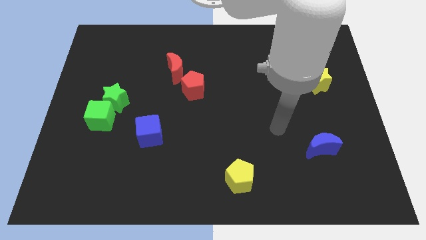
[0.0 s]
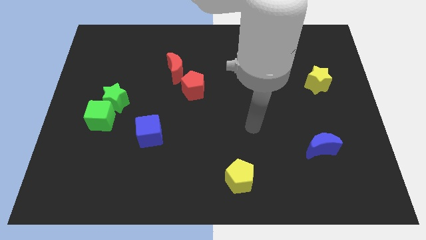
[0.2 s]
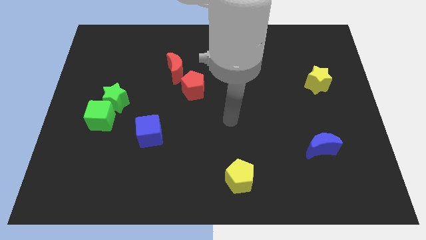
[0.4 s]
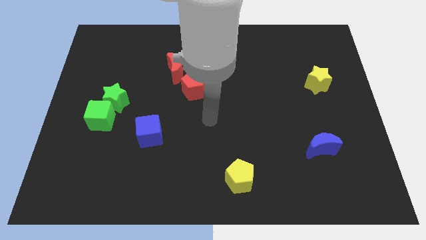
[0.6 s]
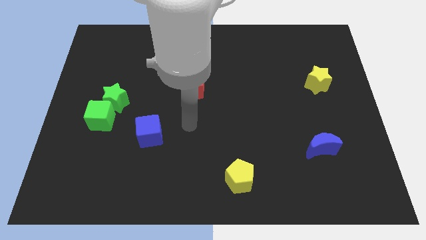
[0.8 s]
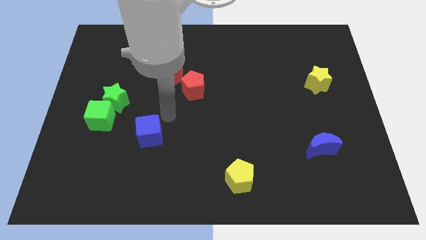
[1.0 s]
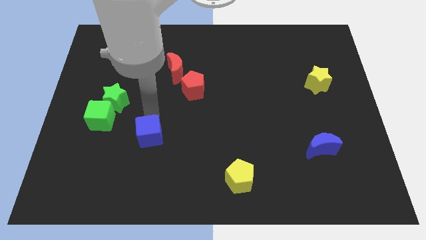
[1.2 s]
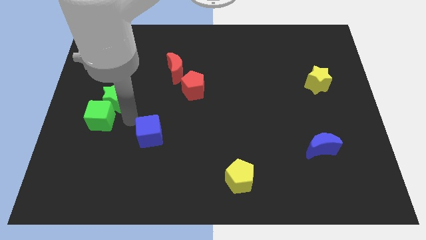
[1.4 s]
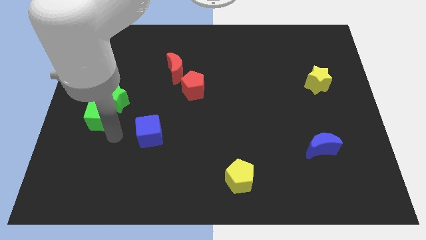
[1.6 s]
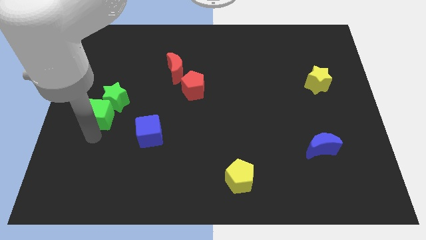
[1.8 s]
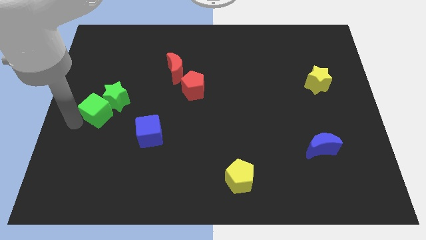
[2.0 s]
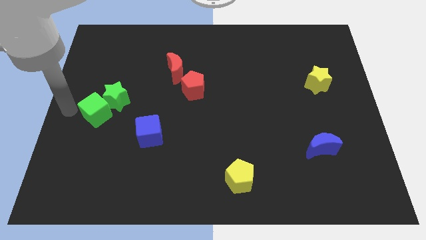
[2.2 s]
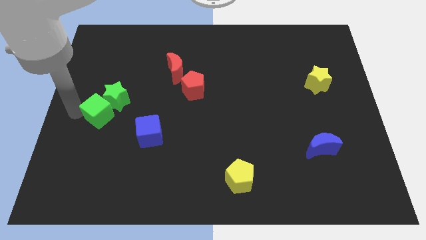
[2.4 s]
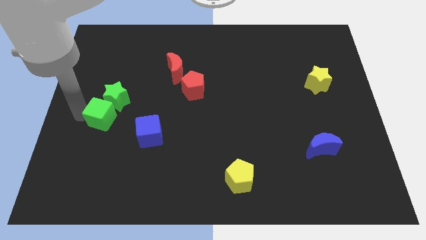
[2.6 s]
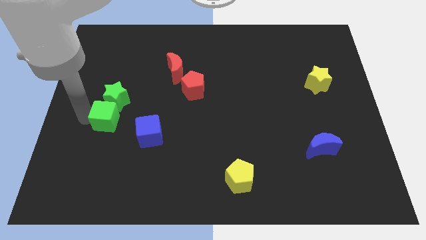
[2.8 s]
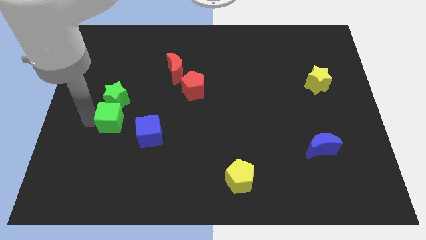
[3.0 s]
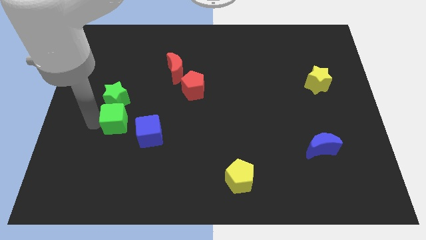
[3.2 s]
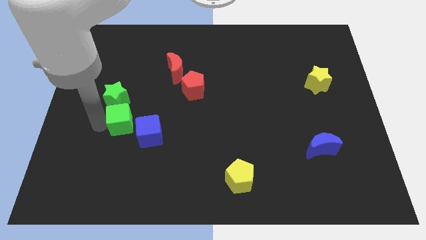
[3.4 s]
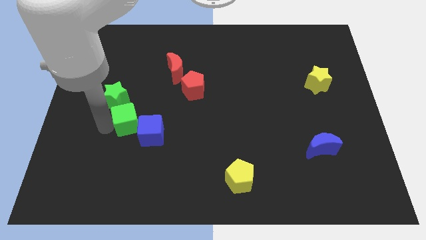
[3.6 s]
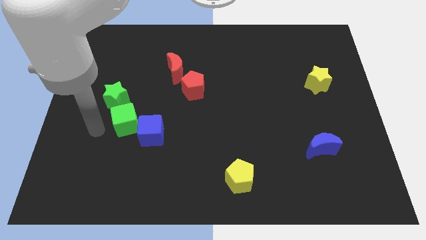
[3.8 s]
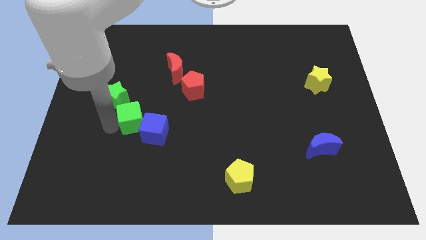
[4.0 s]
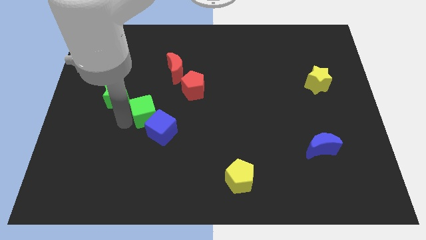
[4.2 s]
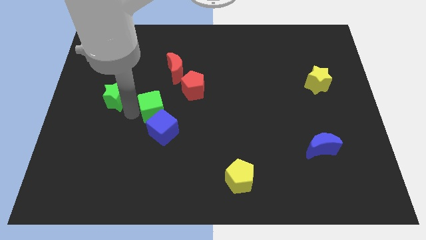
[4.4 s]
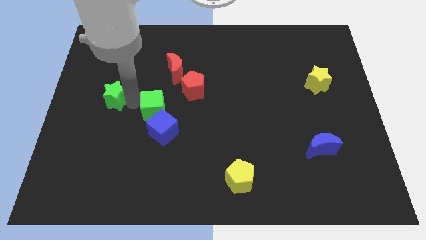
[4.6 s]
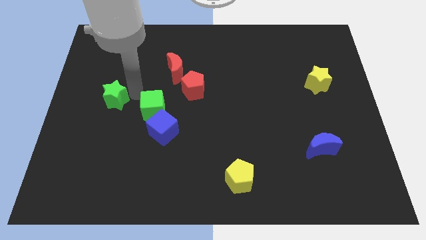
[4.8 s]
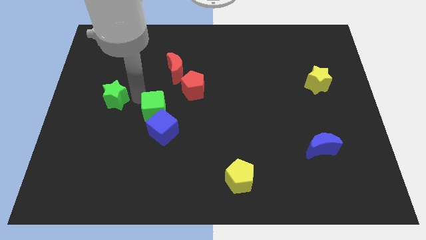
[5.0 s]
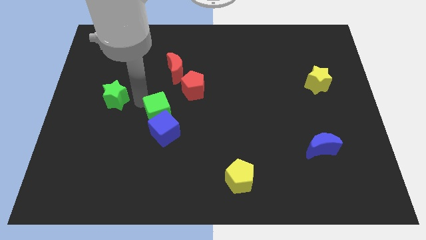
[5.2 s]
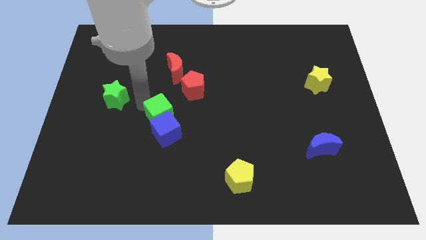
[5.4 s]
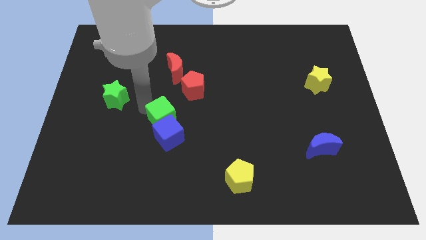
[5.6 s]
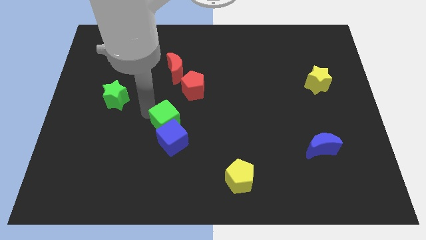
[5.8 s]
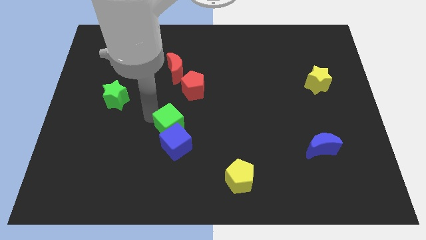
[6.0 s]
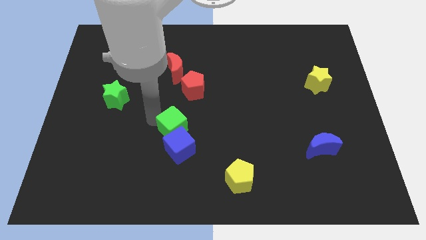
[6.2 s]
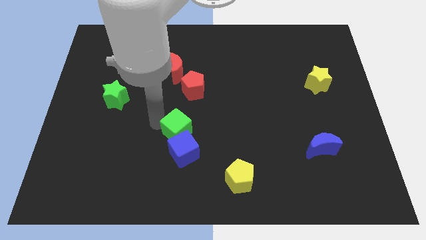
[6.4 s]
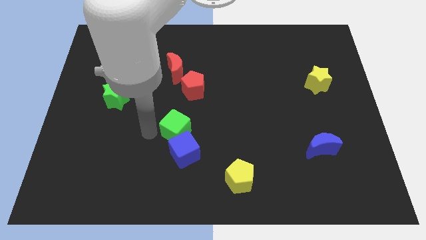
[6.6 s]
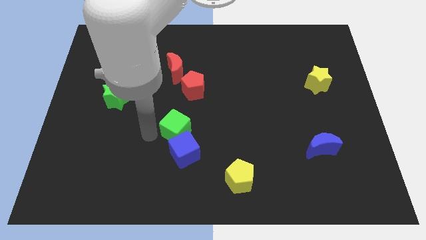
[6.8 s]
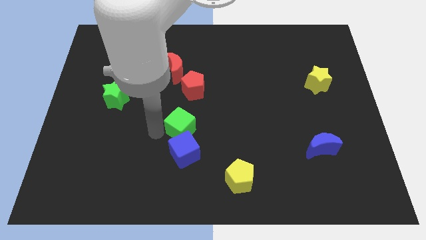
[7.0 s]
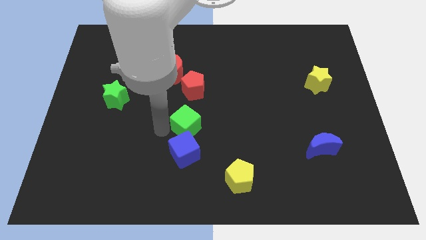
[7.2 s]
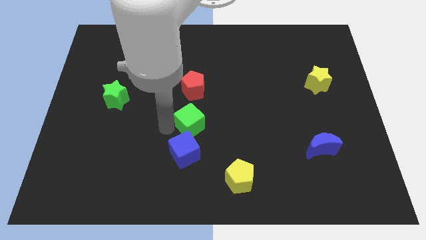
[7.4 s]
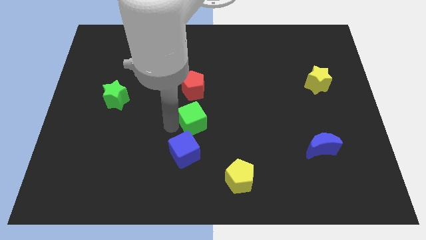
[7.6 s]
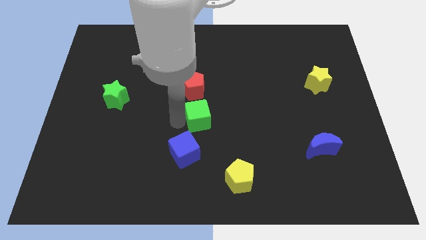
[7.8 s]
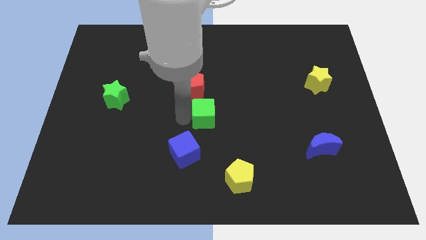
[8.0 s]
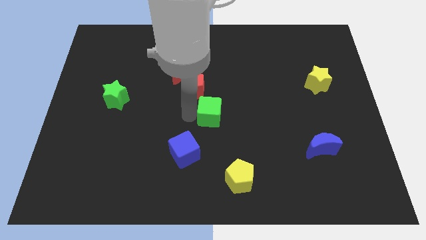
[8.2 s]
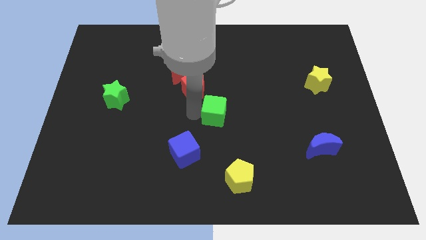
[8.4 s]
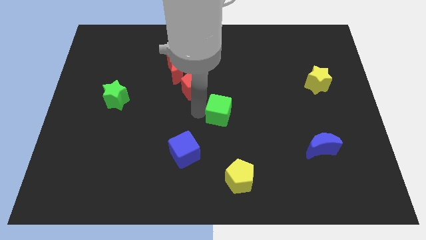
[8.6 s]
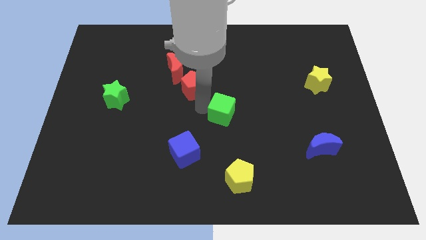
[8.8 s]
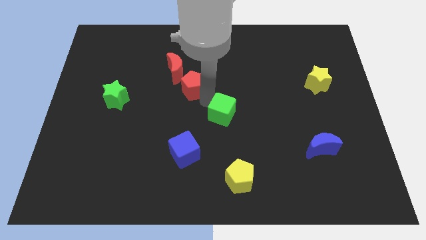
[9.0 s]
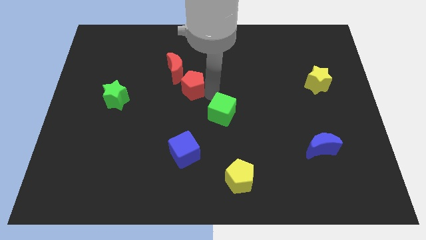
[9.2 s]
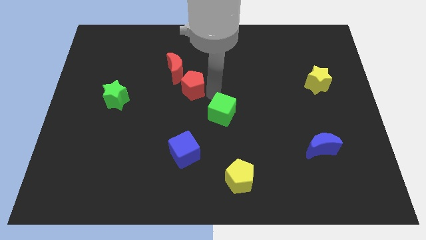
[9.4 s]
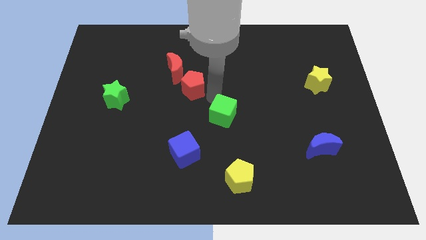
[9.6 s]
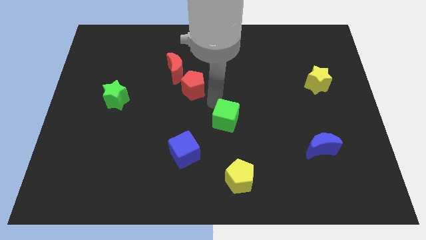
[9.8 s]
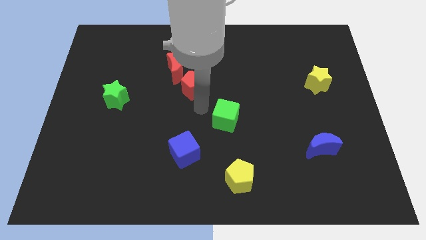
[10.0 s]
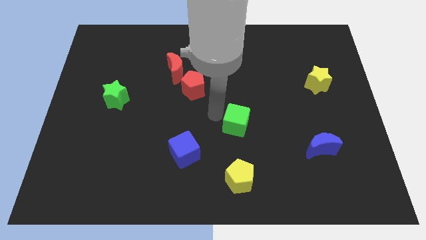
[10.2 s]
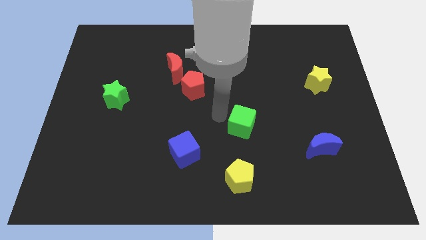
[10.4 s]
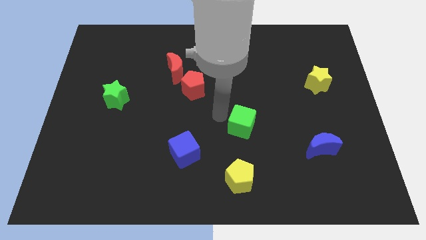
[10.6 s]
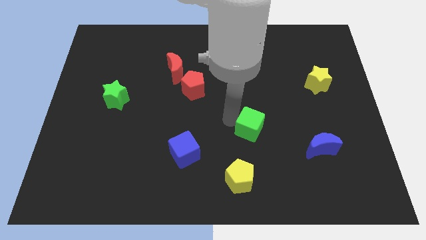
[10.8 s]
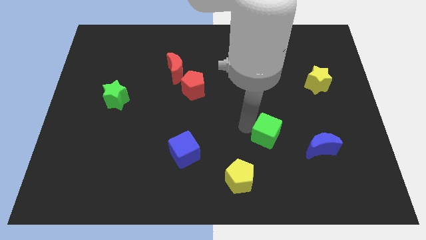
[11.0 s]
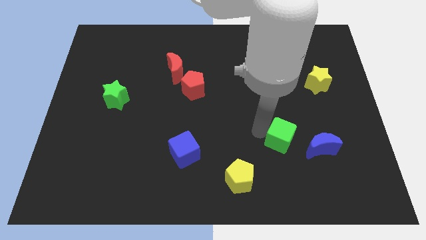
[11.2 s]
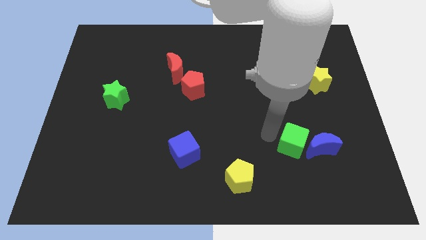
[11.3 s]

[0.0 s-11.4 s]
move the green cube close to the blue moon
